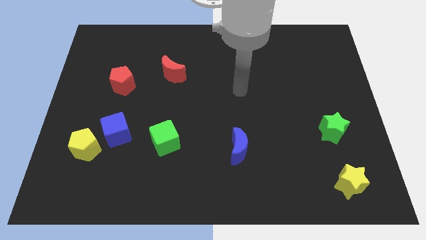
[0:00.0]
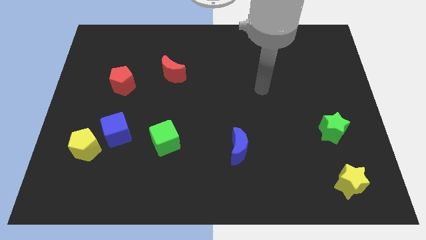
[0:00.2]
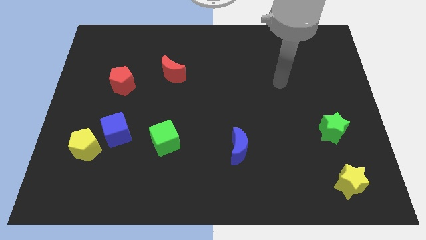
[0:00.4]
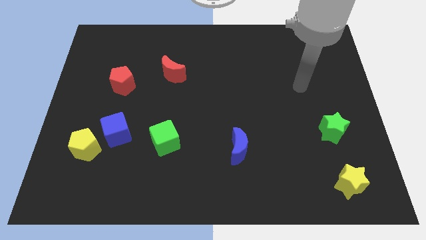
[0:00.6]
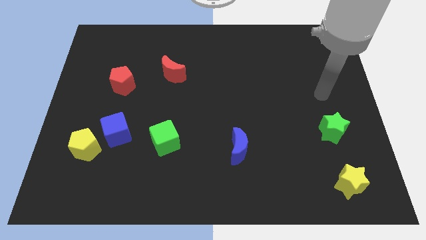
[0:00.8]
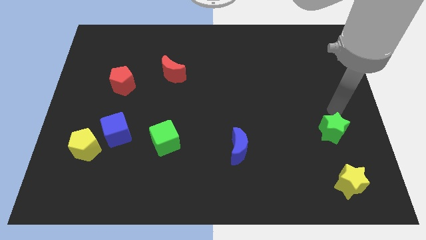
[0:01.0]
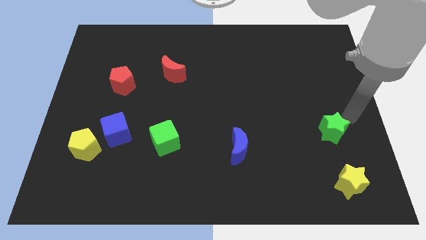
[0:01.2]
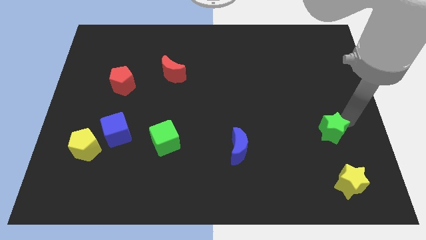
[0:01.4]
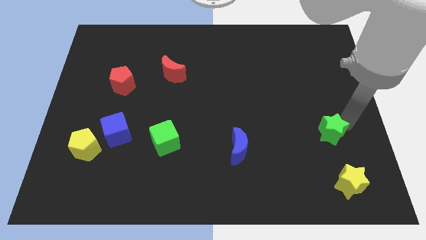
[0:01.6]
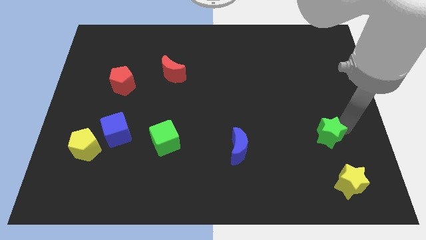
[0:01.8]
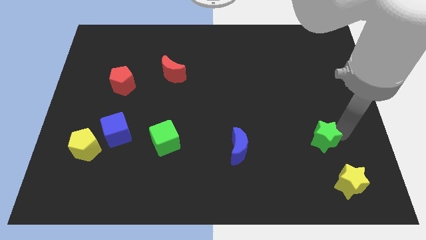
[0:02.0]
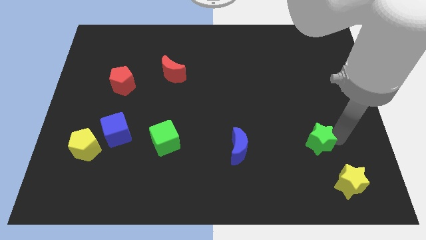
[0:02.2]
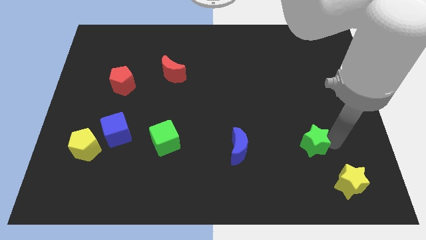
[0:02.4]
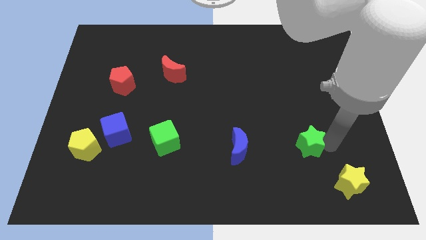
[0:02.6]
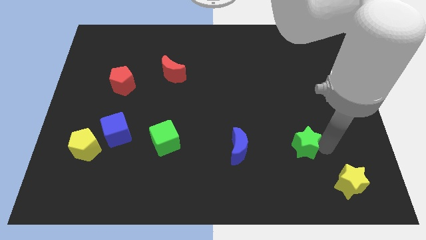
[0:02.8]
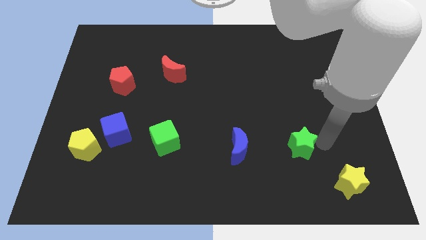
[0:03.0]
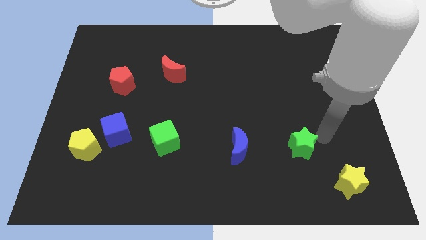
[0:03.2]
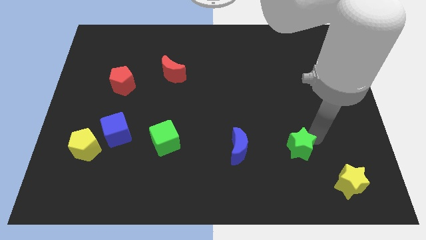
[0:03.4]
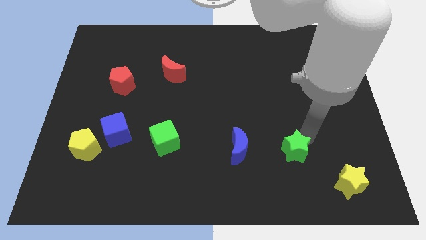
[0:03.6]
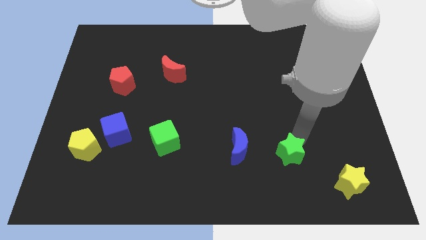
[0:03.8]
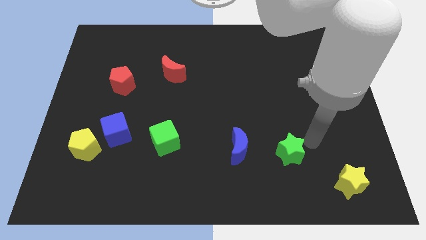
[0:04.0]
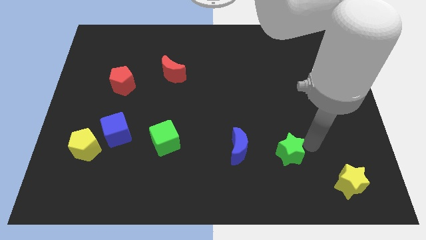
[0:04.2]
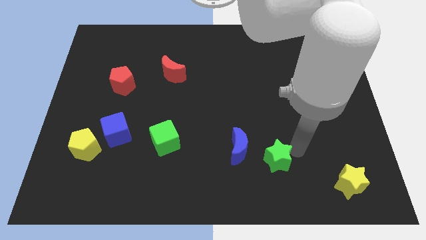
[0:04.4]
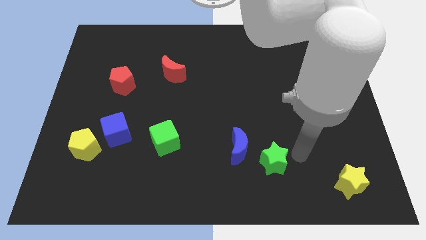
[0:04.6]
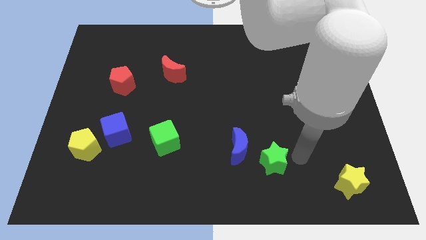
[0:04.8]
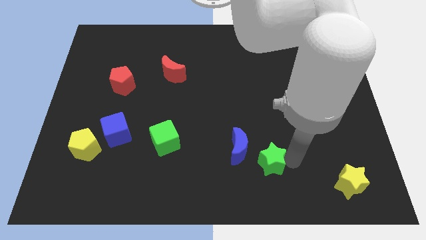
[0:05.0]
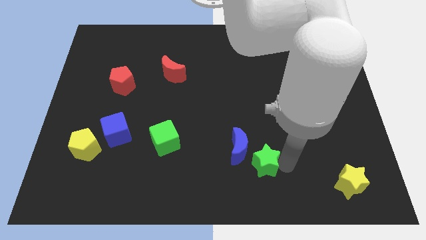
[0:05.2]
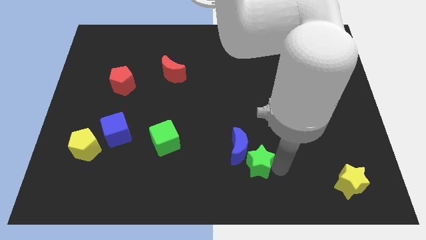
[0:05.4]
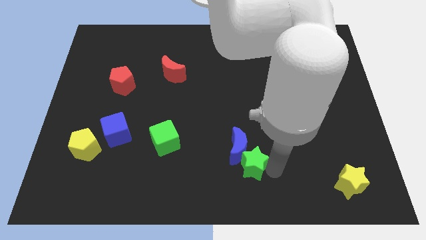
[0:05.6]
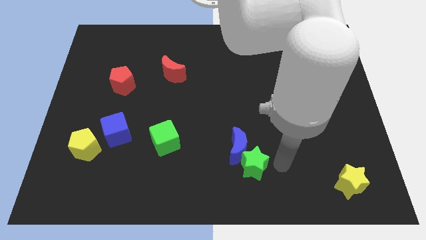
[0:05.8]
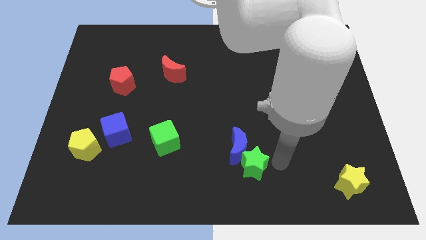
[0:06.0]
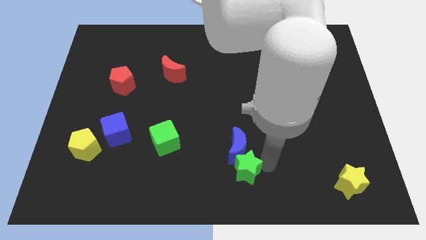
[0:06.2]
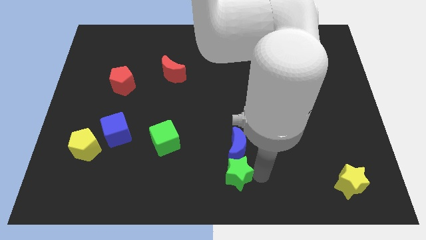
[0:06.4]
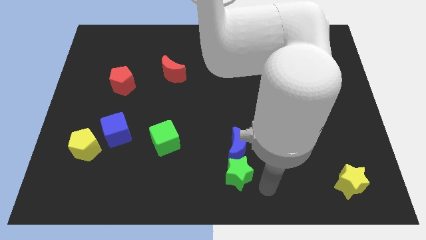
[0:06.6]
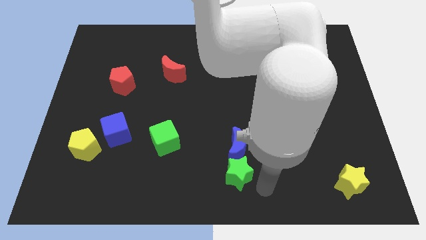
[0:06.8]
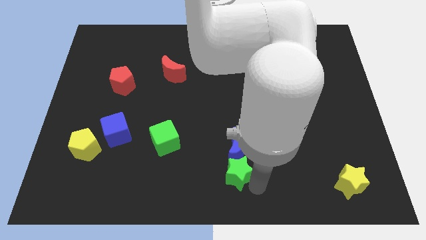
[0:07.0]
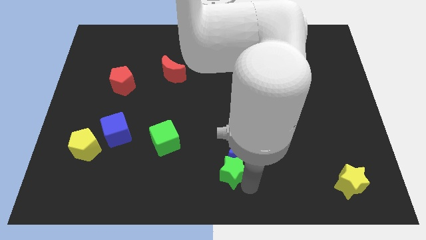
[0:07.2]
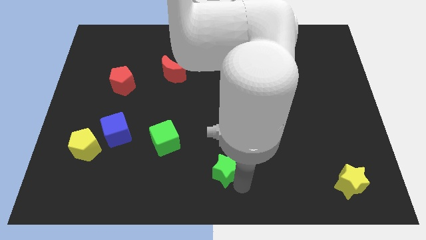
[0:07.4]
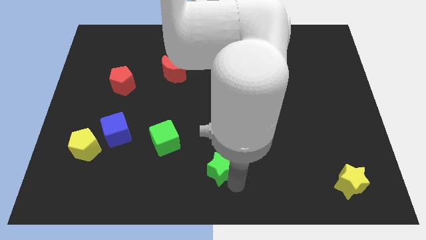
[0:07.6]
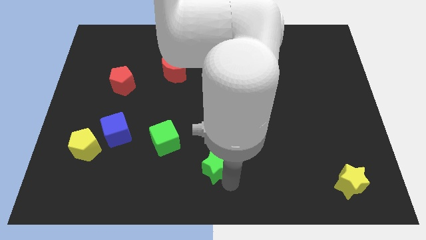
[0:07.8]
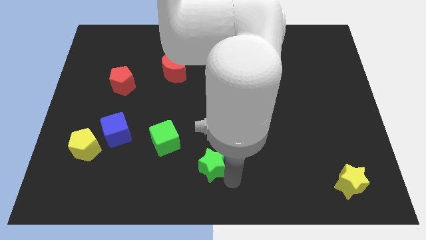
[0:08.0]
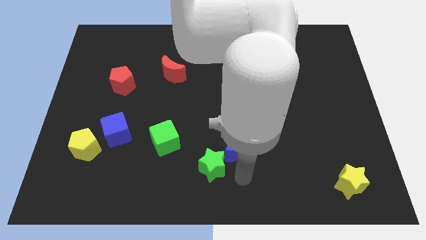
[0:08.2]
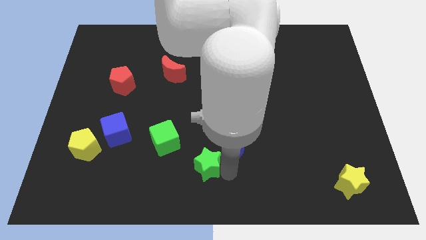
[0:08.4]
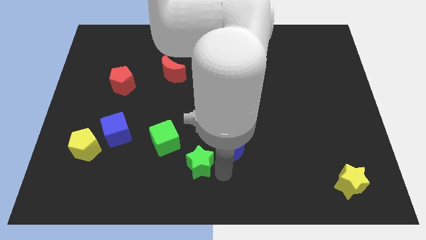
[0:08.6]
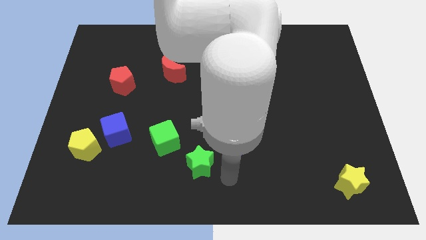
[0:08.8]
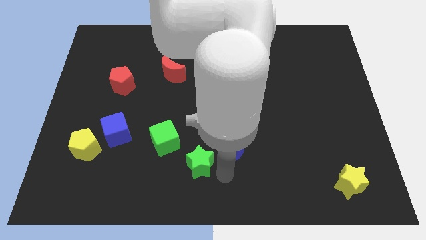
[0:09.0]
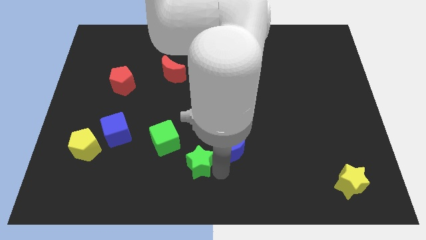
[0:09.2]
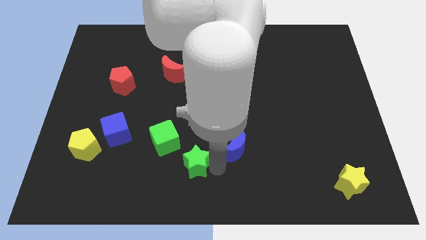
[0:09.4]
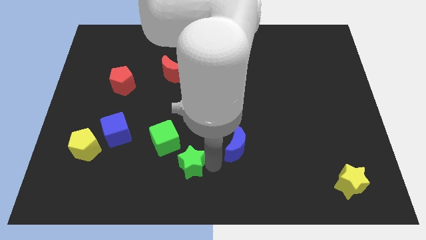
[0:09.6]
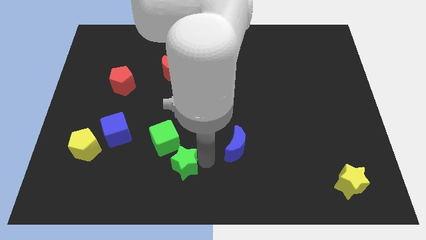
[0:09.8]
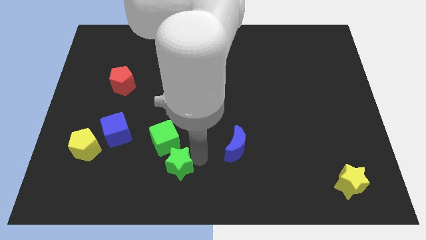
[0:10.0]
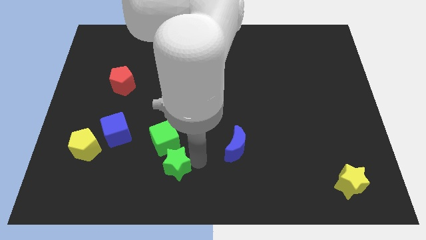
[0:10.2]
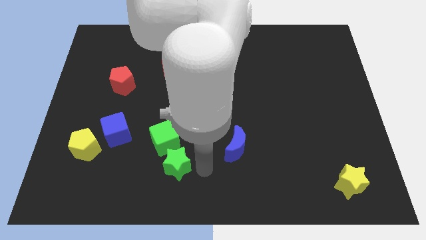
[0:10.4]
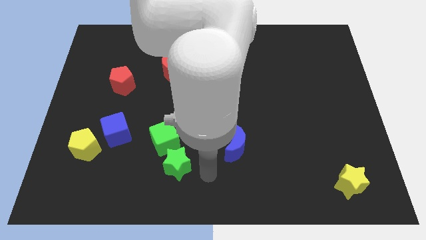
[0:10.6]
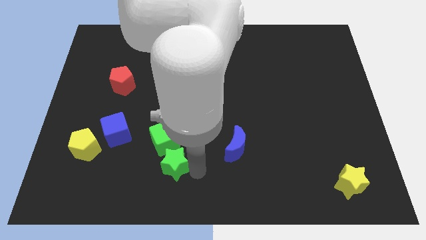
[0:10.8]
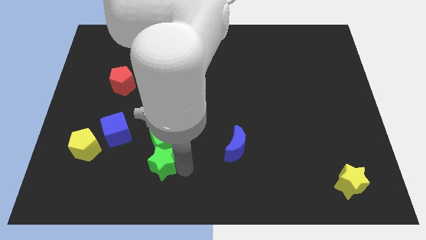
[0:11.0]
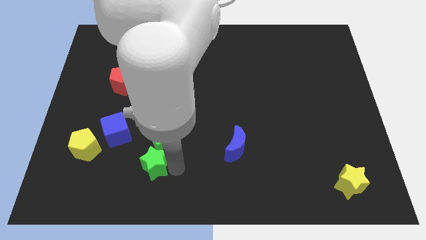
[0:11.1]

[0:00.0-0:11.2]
move the green star to the bottom right side of the blue cube

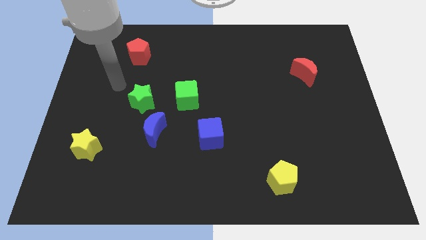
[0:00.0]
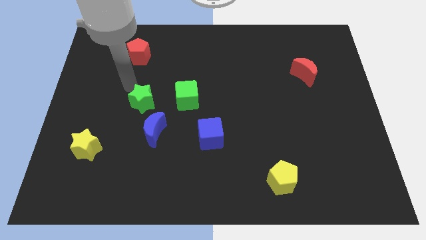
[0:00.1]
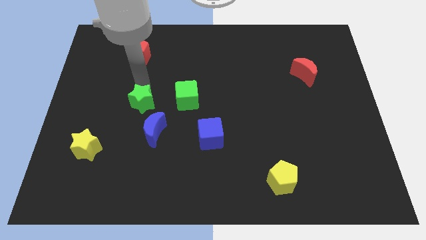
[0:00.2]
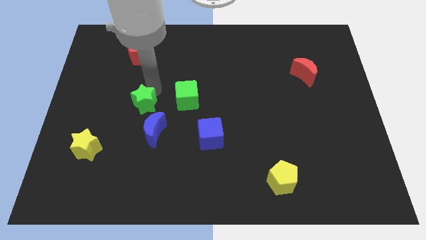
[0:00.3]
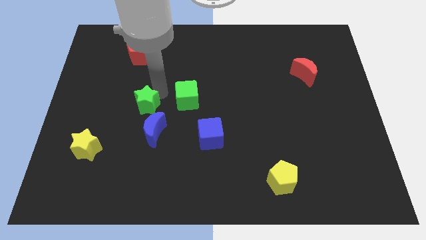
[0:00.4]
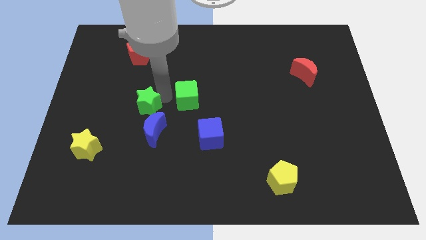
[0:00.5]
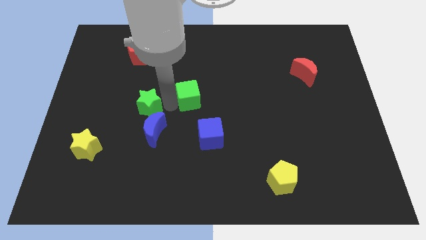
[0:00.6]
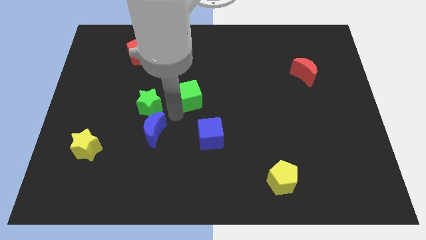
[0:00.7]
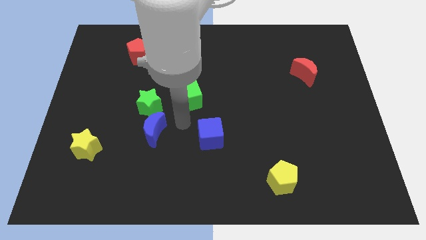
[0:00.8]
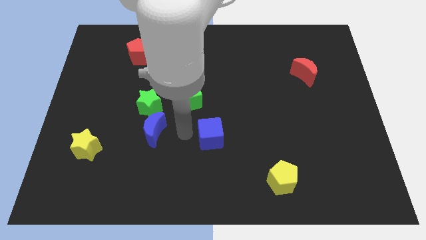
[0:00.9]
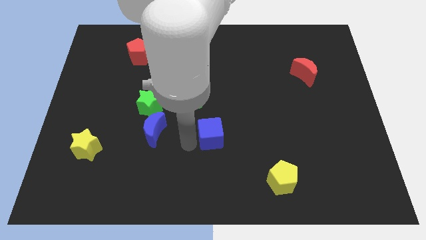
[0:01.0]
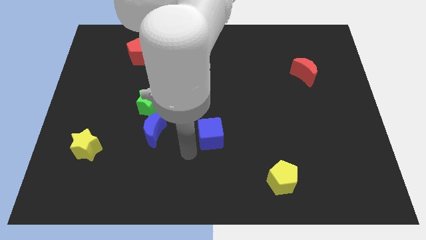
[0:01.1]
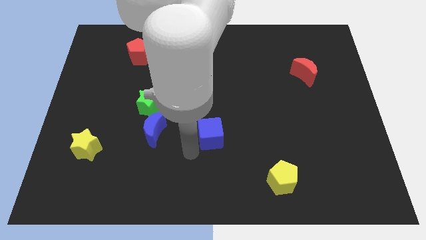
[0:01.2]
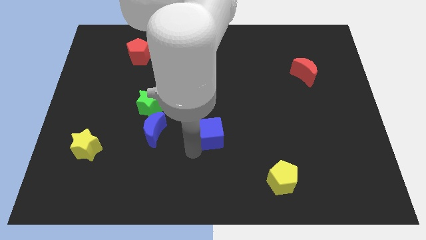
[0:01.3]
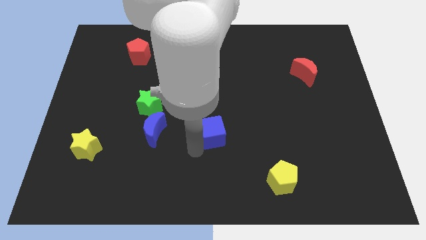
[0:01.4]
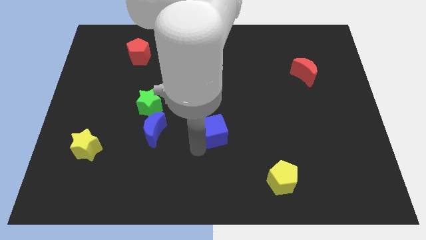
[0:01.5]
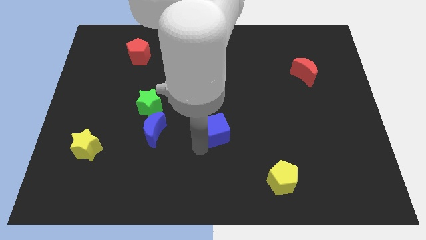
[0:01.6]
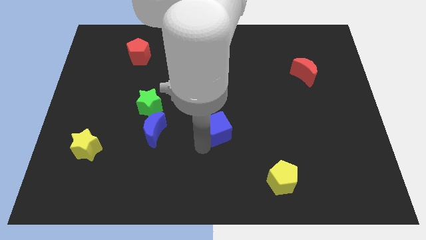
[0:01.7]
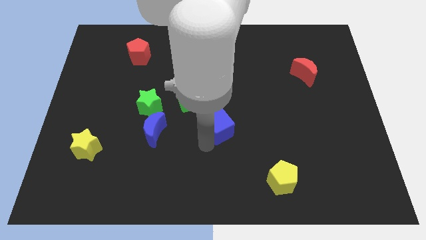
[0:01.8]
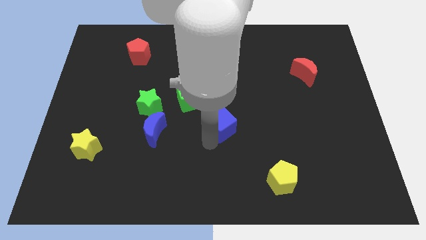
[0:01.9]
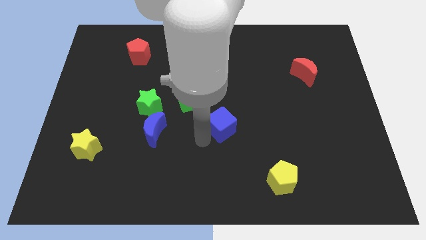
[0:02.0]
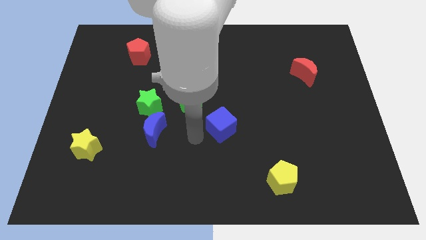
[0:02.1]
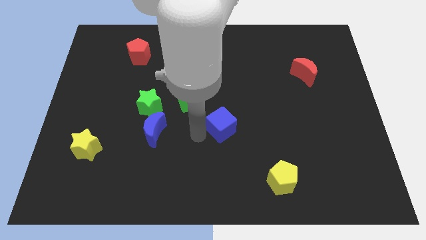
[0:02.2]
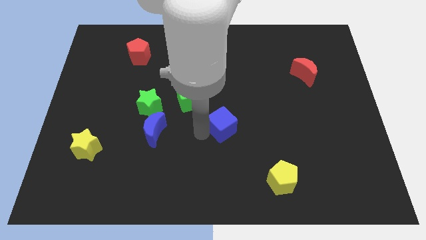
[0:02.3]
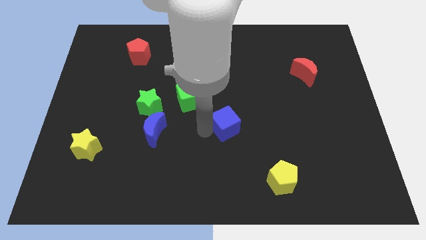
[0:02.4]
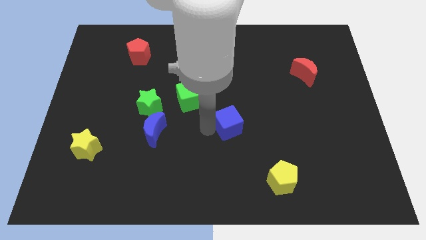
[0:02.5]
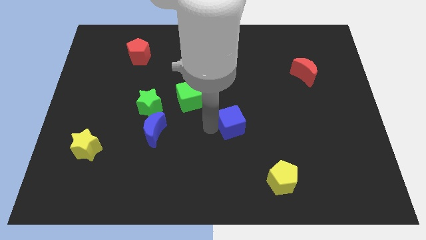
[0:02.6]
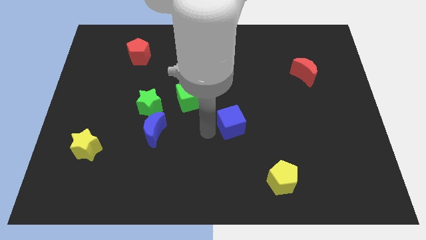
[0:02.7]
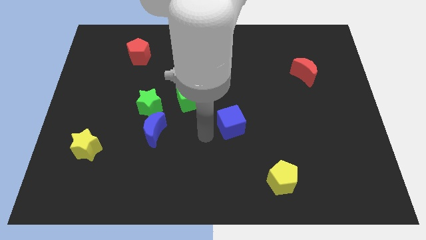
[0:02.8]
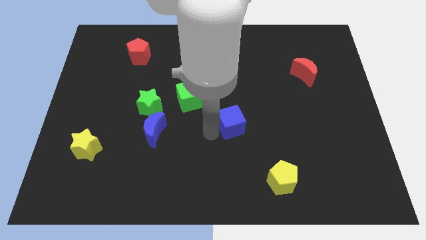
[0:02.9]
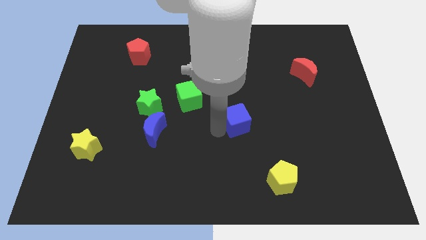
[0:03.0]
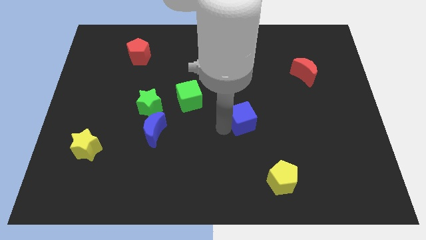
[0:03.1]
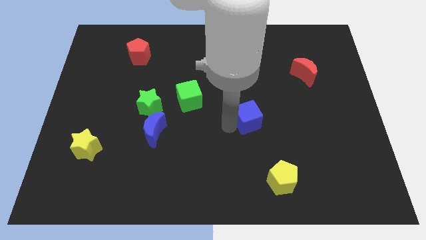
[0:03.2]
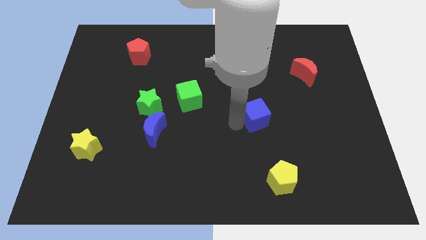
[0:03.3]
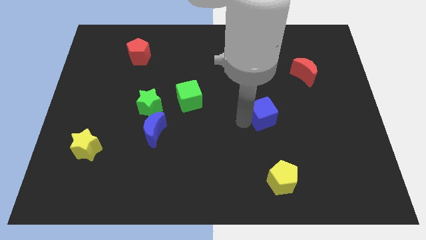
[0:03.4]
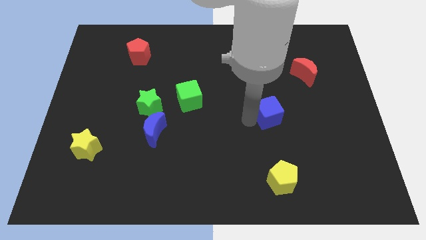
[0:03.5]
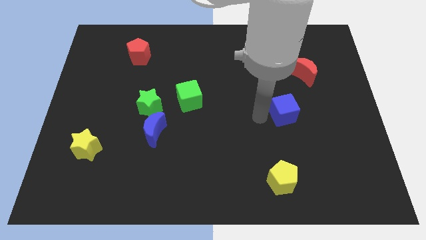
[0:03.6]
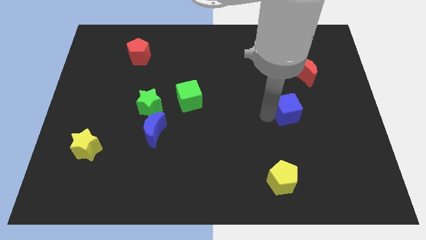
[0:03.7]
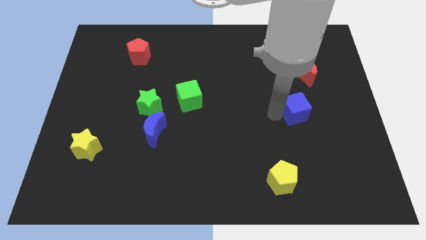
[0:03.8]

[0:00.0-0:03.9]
push the blue cube to the bottom of the red moon
